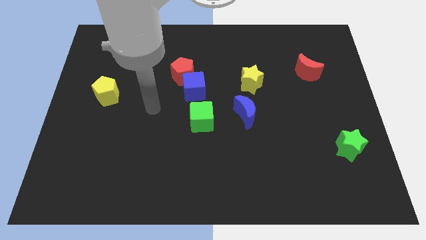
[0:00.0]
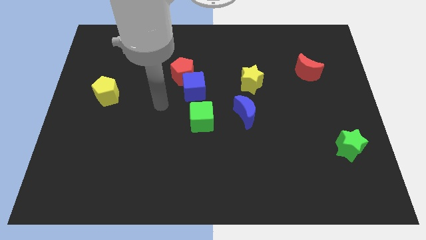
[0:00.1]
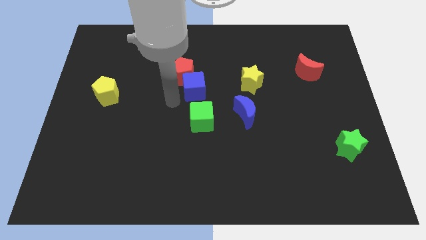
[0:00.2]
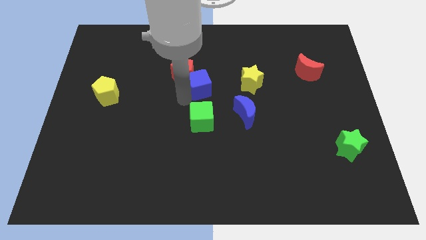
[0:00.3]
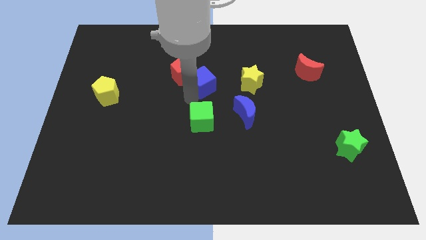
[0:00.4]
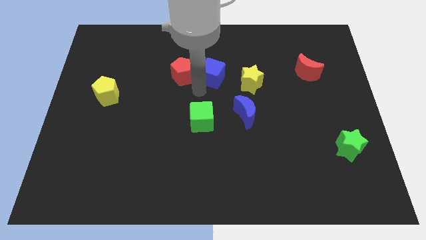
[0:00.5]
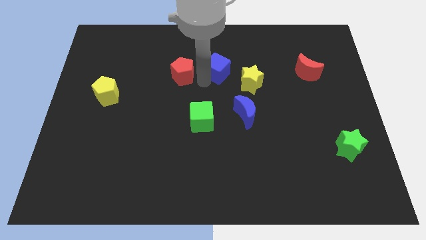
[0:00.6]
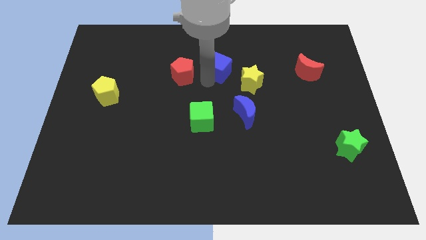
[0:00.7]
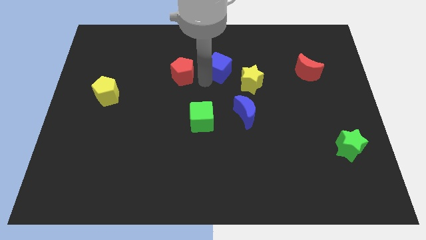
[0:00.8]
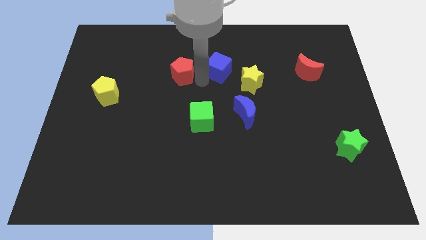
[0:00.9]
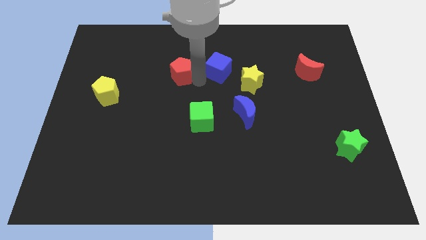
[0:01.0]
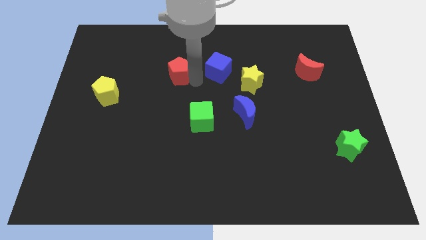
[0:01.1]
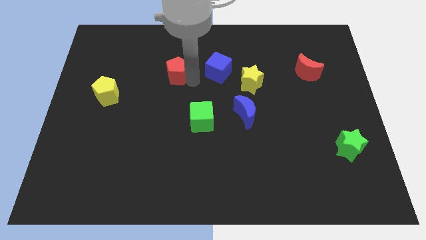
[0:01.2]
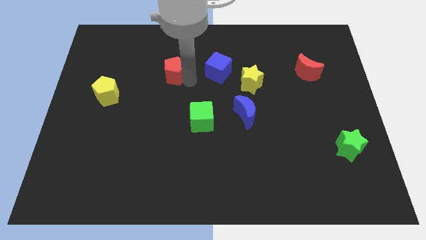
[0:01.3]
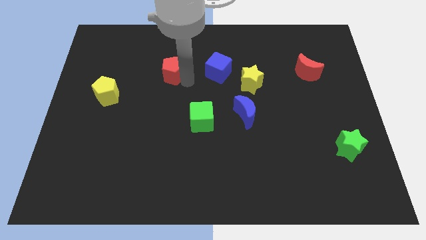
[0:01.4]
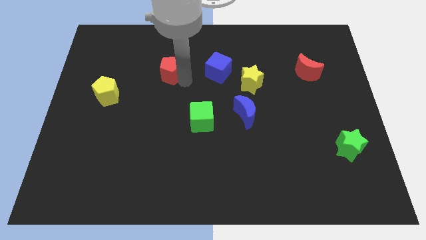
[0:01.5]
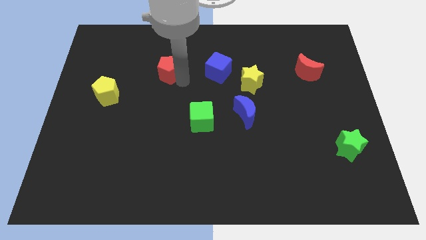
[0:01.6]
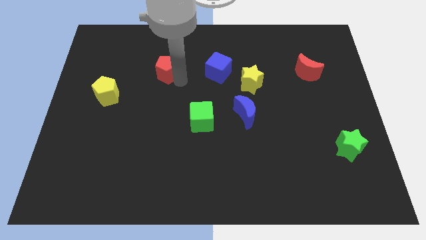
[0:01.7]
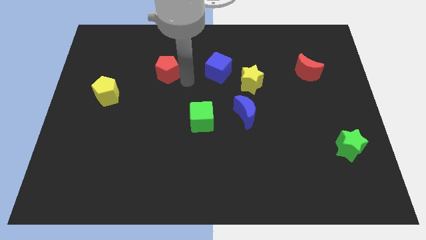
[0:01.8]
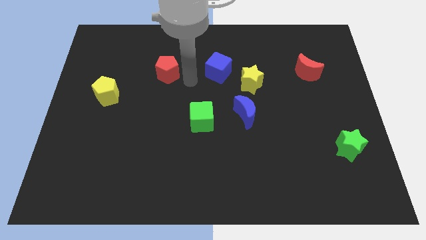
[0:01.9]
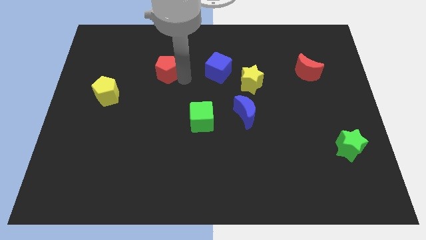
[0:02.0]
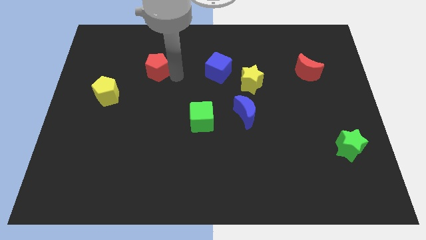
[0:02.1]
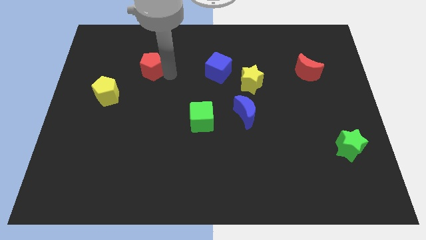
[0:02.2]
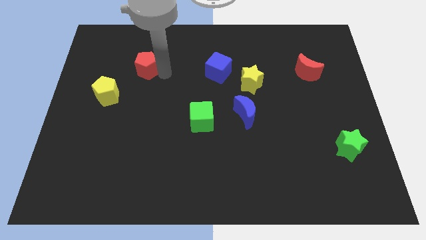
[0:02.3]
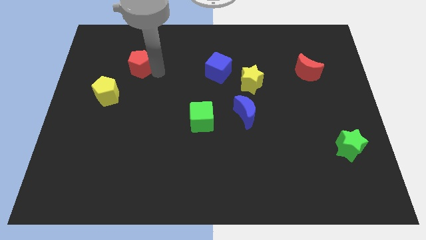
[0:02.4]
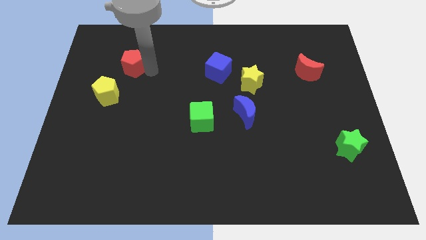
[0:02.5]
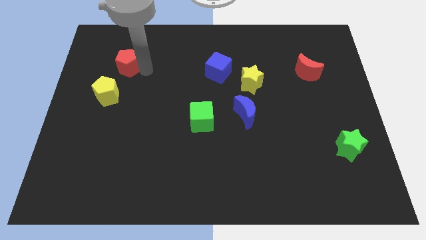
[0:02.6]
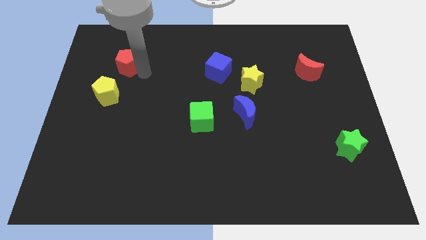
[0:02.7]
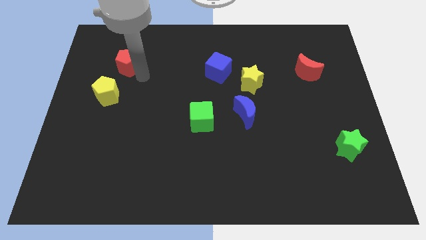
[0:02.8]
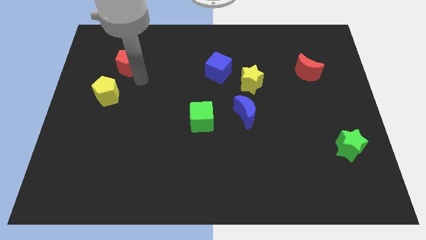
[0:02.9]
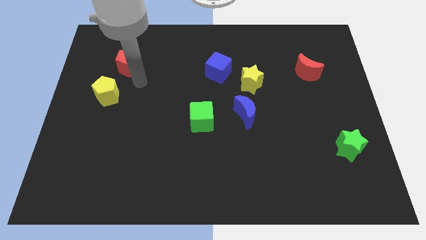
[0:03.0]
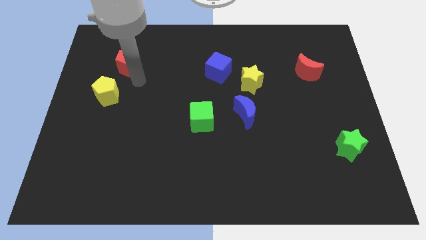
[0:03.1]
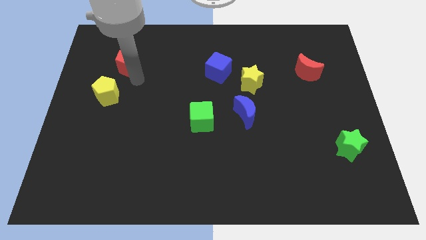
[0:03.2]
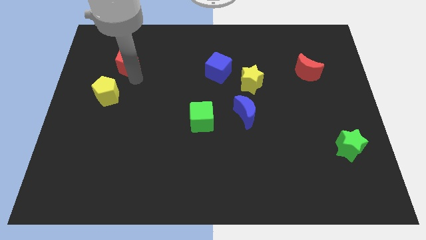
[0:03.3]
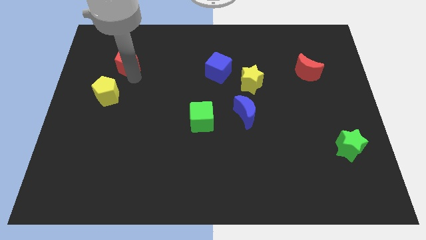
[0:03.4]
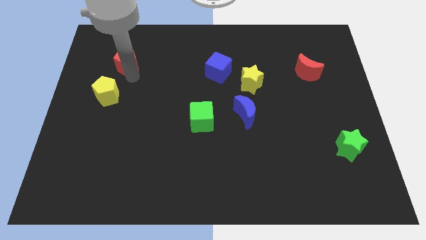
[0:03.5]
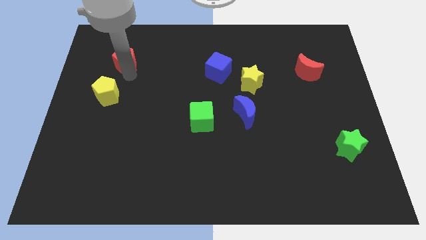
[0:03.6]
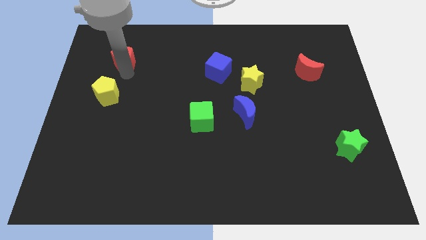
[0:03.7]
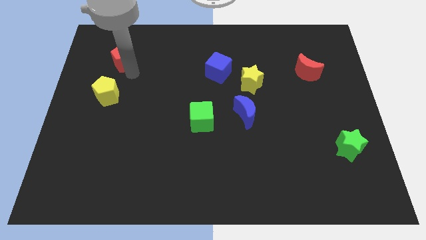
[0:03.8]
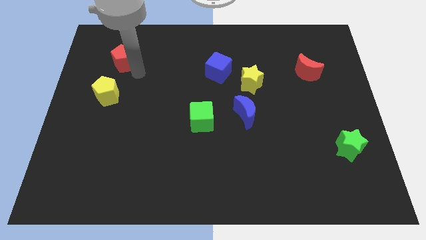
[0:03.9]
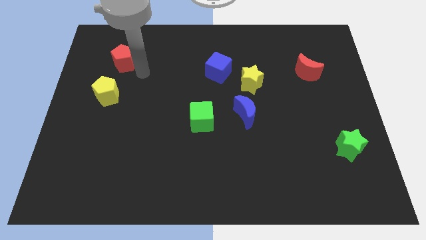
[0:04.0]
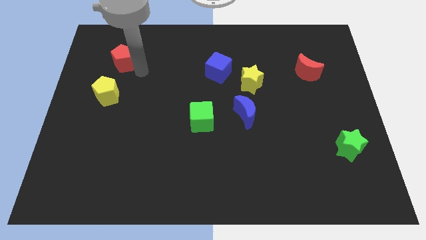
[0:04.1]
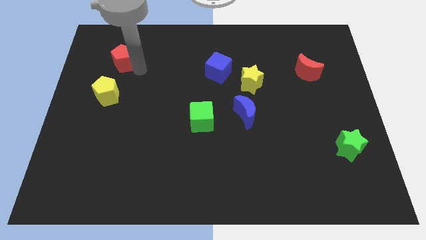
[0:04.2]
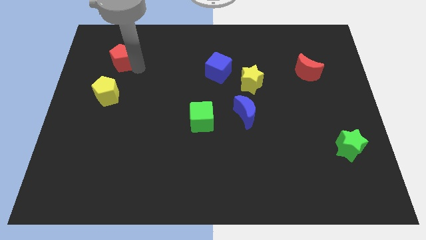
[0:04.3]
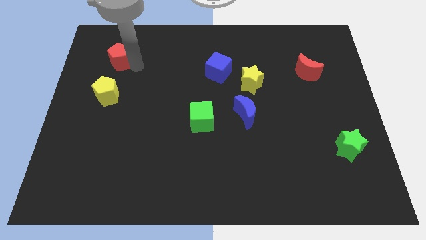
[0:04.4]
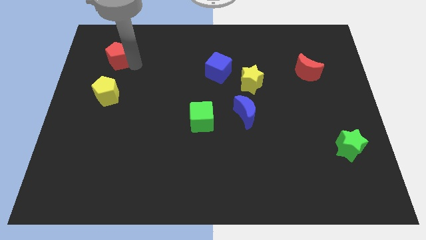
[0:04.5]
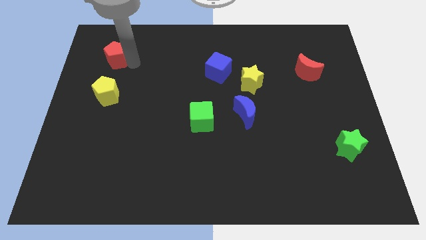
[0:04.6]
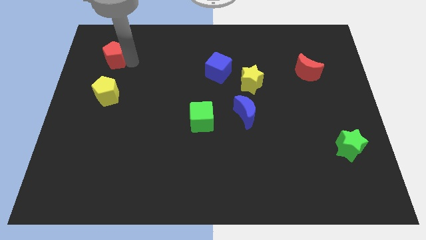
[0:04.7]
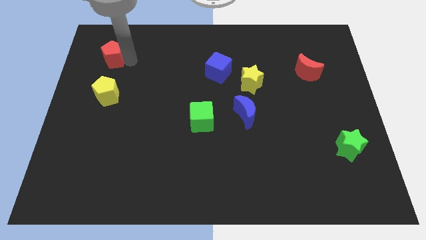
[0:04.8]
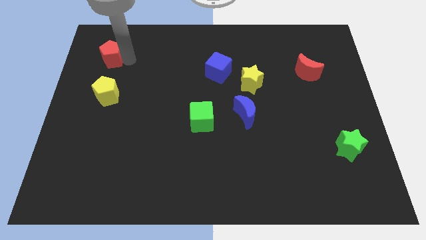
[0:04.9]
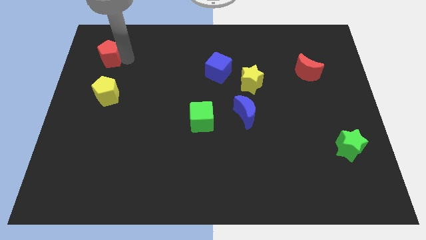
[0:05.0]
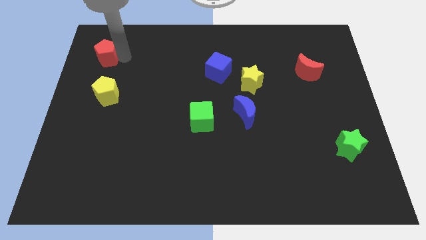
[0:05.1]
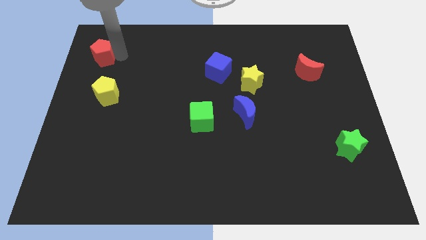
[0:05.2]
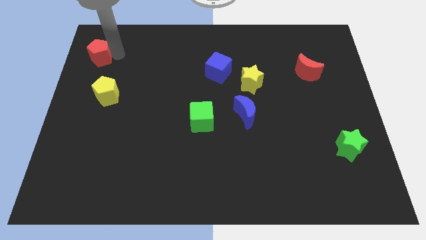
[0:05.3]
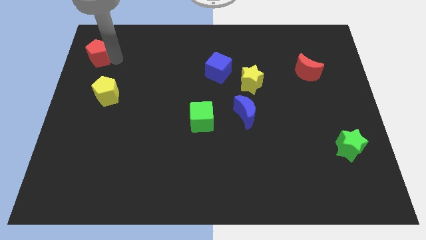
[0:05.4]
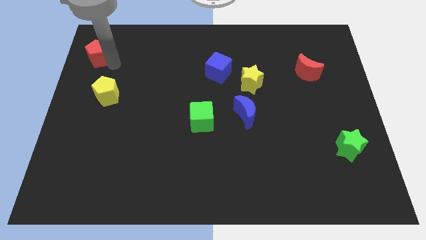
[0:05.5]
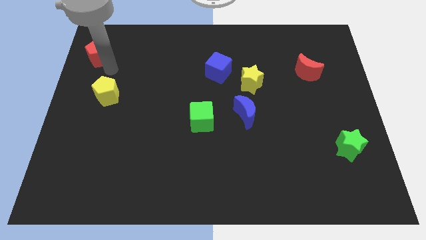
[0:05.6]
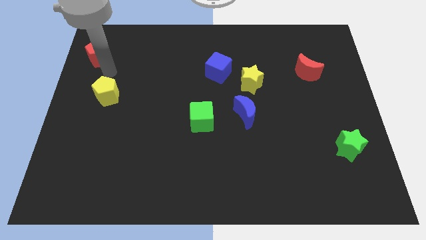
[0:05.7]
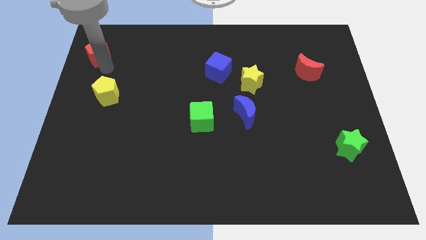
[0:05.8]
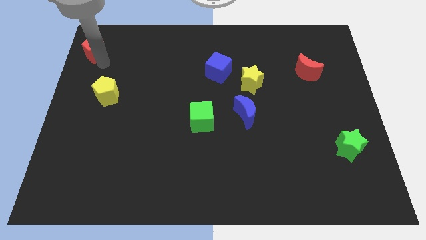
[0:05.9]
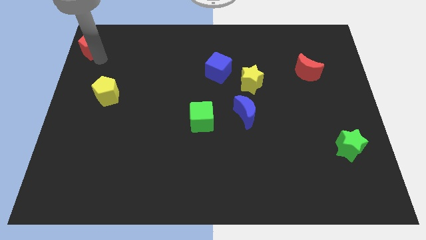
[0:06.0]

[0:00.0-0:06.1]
slide the red pentagon to the top left of the board

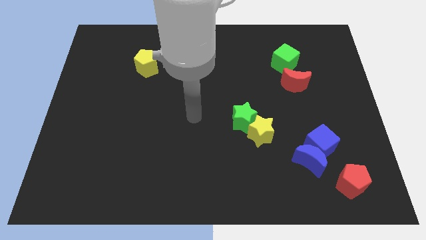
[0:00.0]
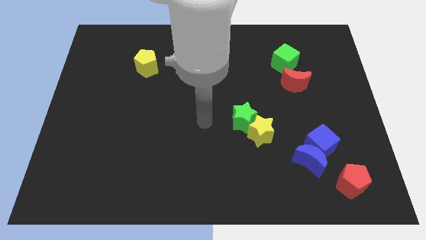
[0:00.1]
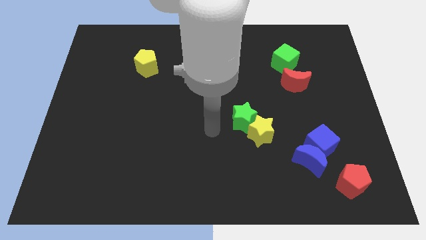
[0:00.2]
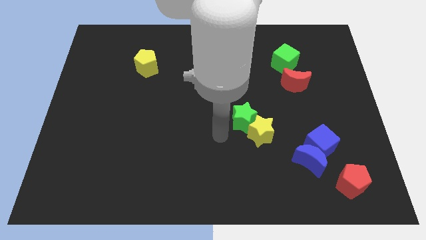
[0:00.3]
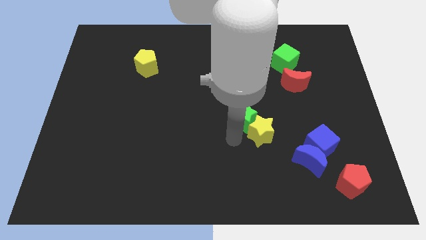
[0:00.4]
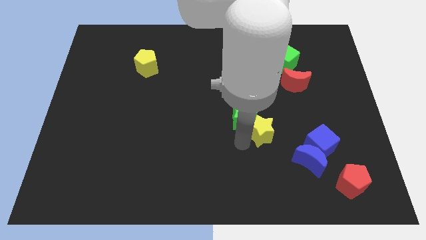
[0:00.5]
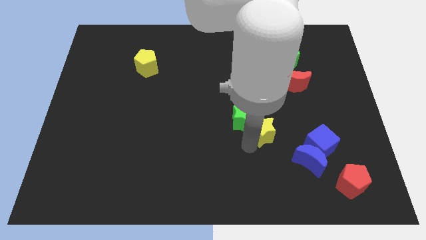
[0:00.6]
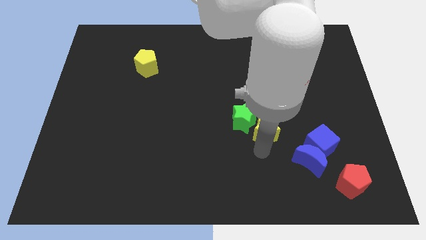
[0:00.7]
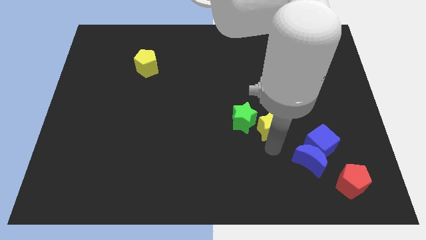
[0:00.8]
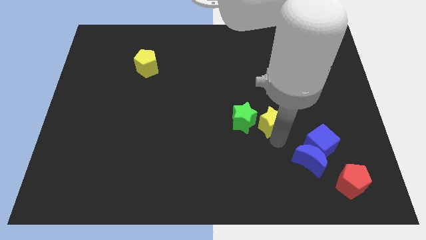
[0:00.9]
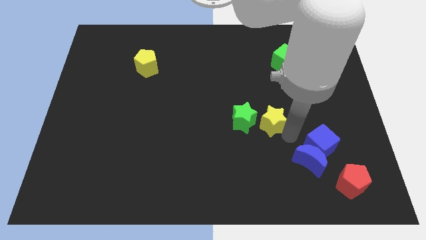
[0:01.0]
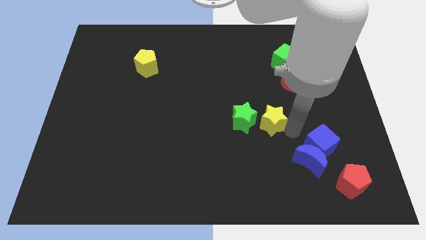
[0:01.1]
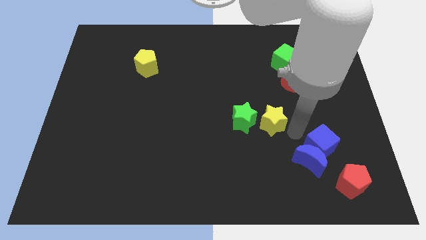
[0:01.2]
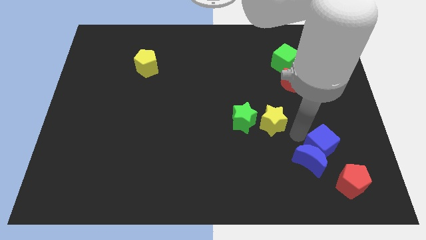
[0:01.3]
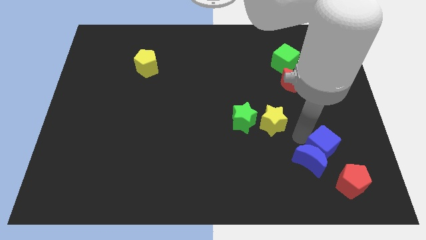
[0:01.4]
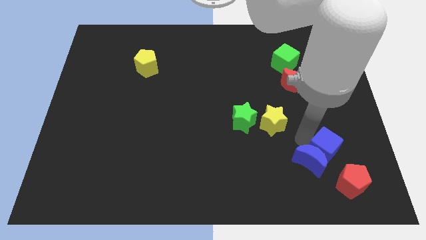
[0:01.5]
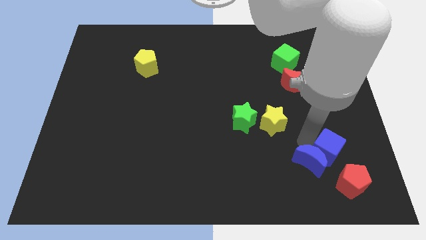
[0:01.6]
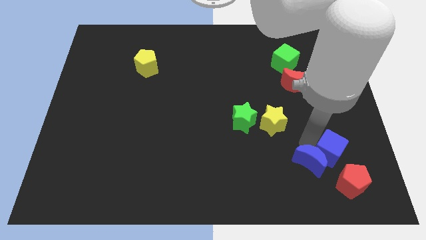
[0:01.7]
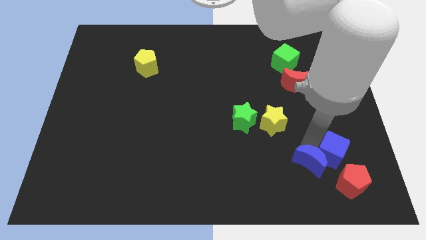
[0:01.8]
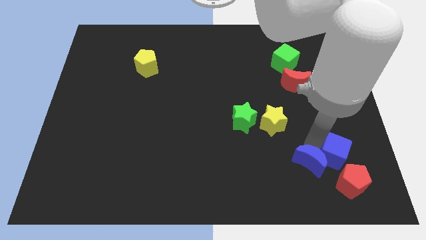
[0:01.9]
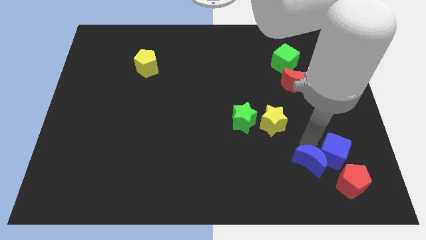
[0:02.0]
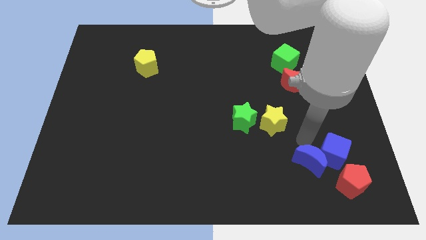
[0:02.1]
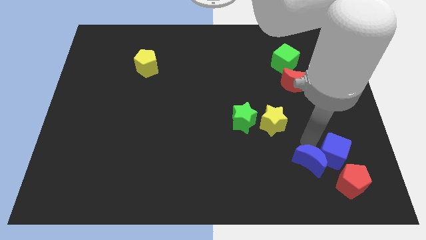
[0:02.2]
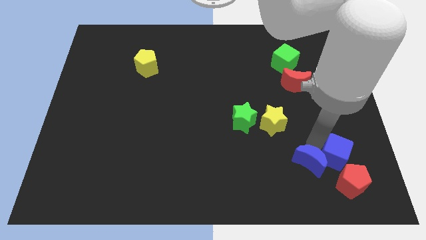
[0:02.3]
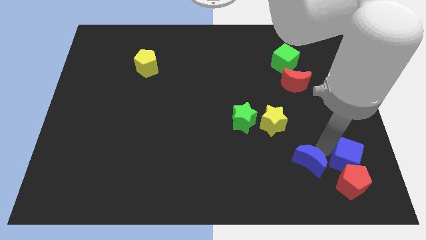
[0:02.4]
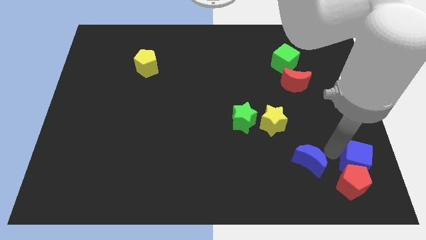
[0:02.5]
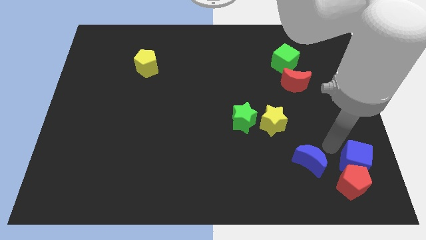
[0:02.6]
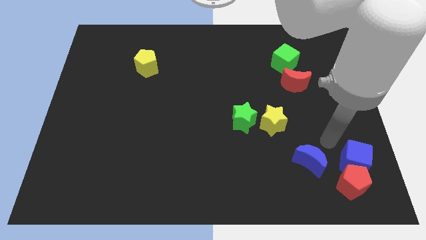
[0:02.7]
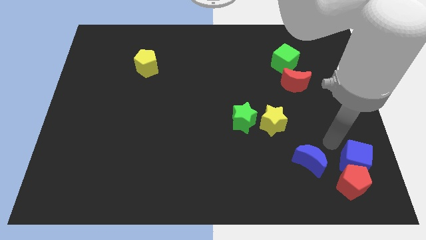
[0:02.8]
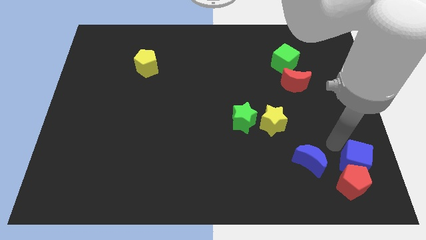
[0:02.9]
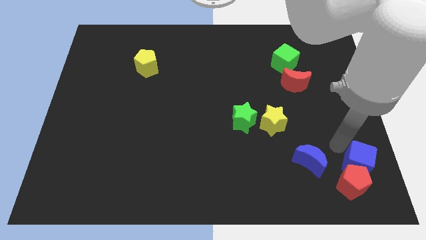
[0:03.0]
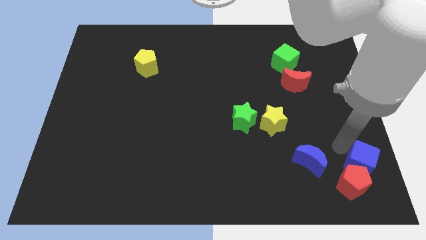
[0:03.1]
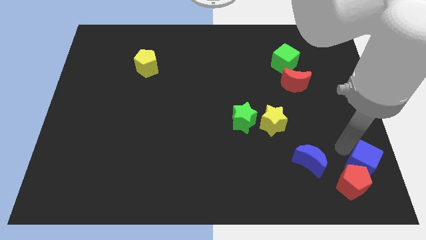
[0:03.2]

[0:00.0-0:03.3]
put the blue cube to the bottom right corner
